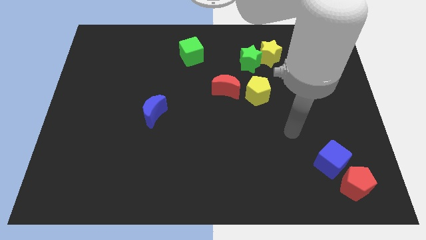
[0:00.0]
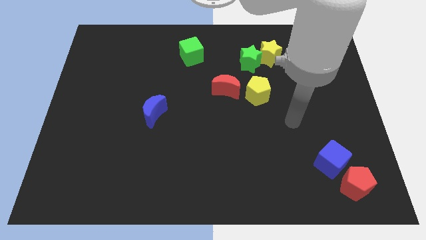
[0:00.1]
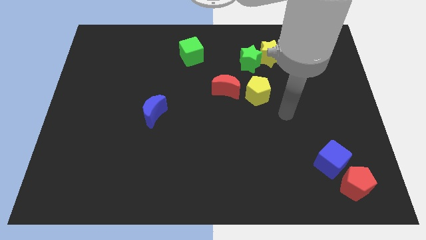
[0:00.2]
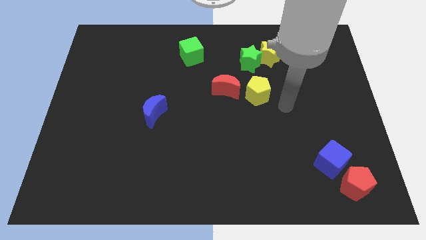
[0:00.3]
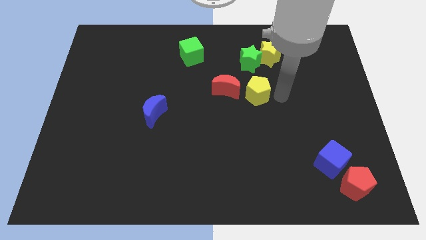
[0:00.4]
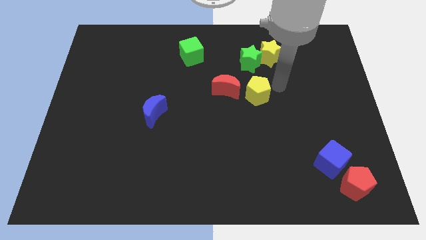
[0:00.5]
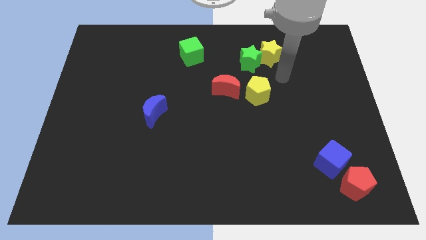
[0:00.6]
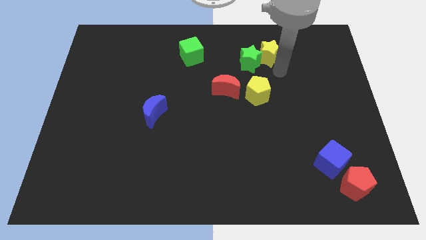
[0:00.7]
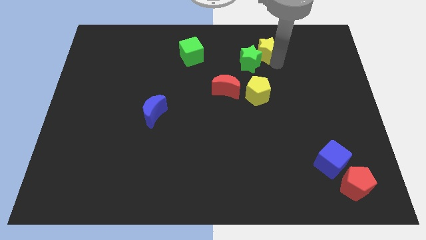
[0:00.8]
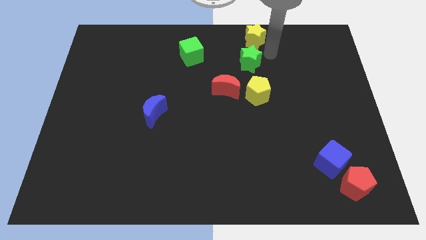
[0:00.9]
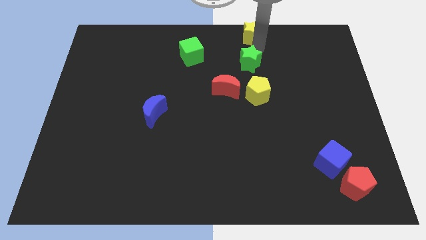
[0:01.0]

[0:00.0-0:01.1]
pull the green star apart from the yellow star

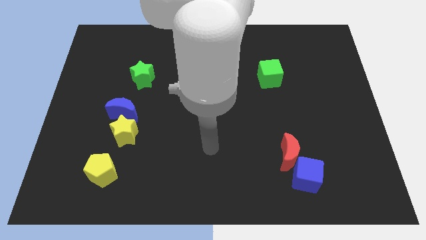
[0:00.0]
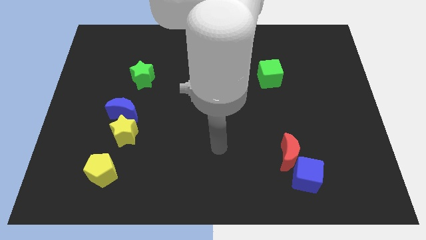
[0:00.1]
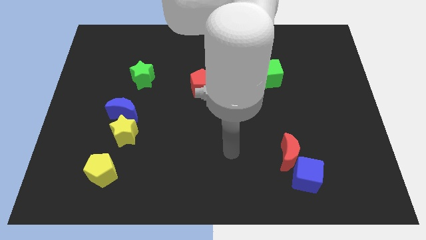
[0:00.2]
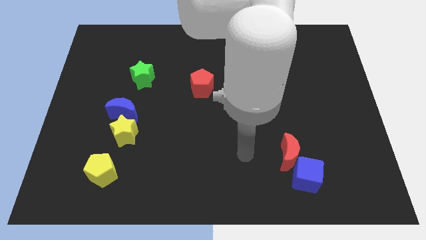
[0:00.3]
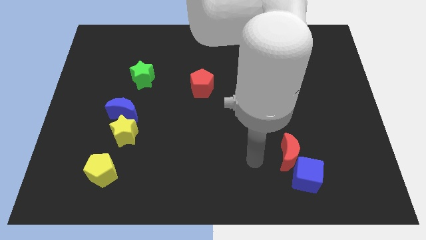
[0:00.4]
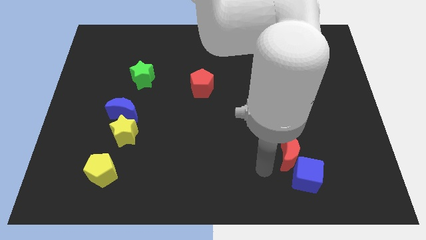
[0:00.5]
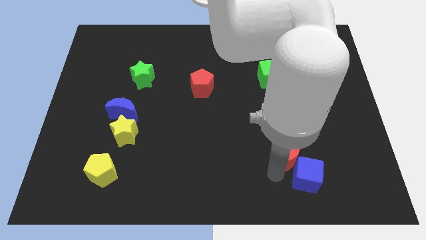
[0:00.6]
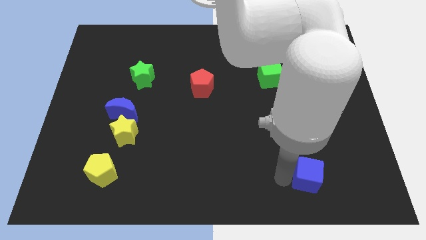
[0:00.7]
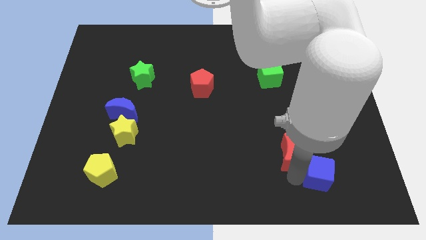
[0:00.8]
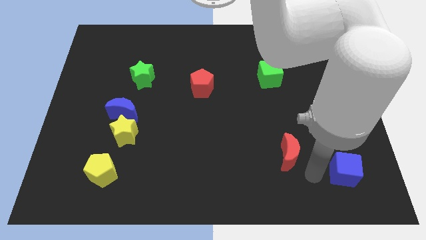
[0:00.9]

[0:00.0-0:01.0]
separate the red moon from the blue cube

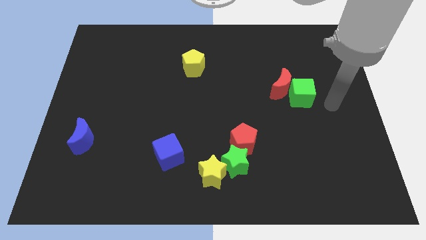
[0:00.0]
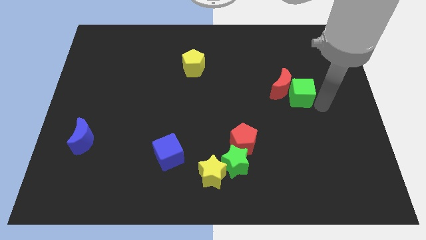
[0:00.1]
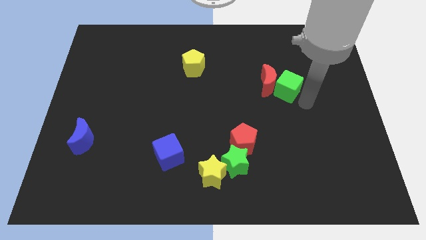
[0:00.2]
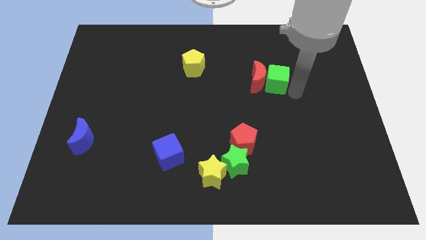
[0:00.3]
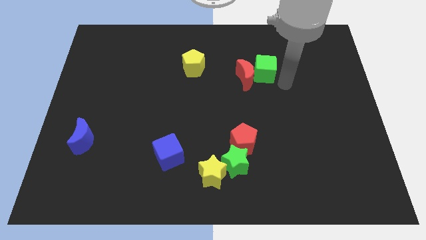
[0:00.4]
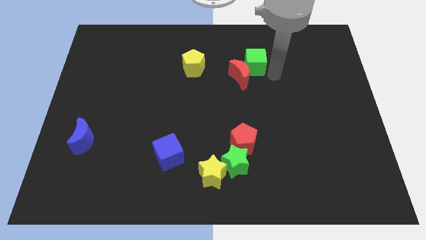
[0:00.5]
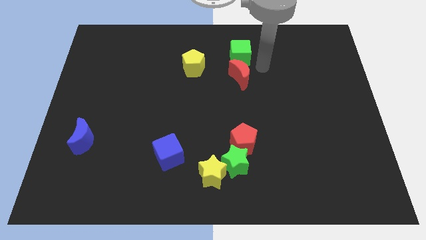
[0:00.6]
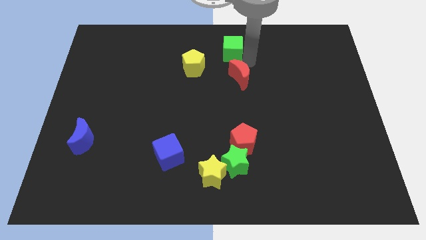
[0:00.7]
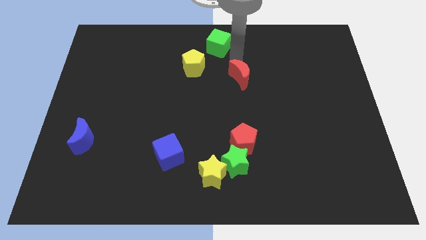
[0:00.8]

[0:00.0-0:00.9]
pull the red moon apart from the green cube

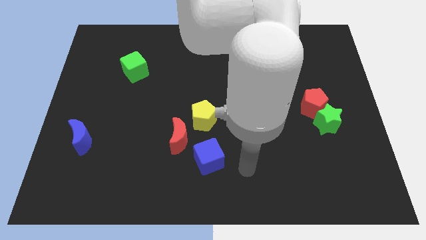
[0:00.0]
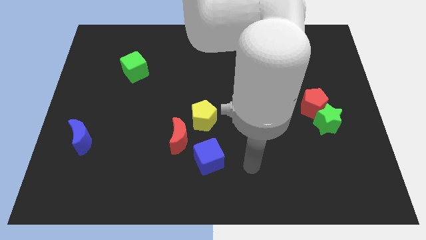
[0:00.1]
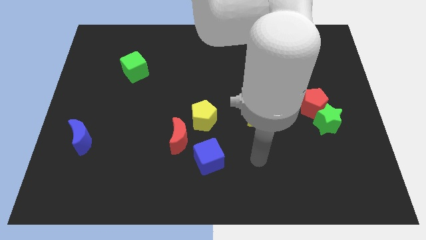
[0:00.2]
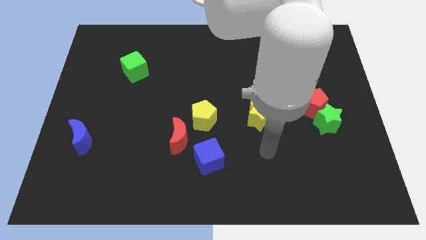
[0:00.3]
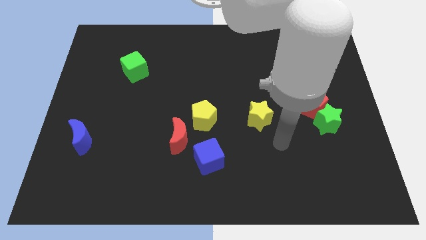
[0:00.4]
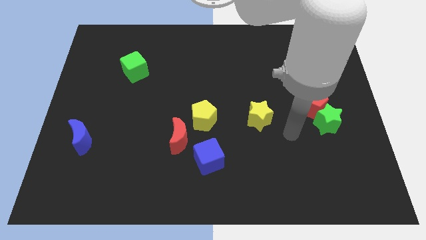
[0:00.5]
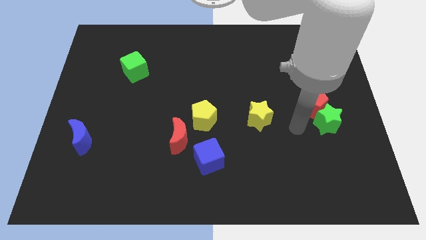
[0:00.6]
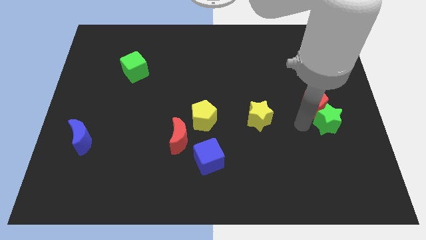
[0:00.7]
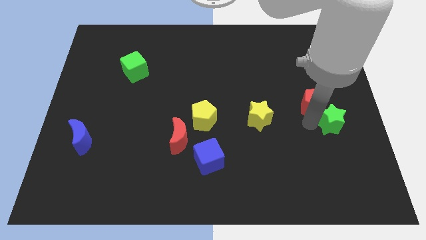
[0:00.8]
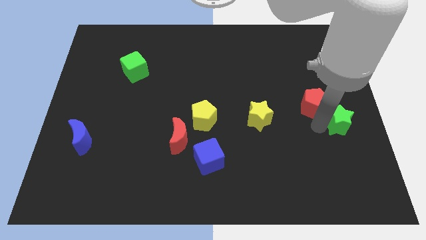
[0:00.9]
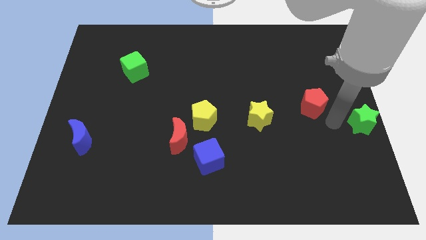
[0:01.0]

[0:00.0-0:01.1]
separate the red pentagon from the green star

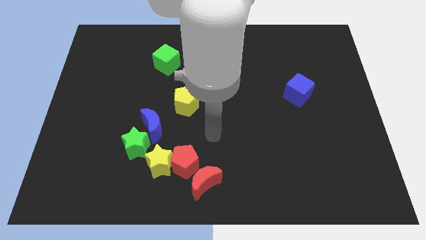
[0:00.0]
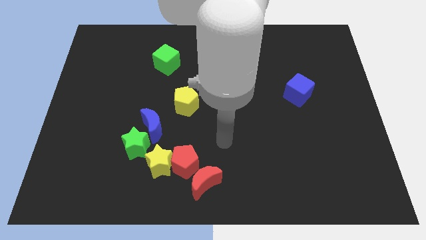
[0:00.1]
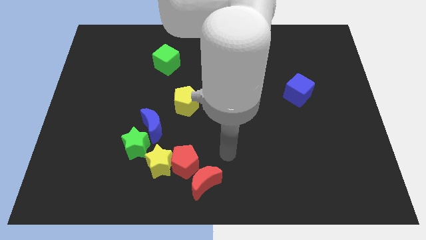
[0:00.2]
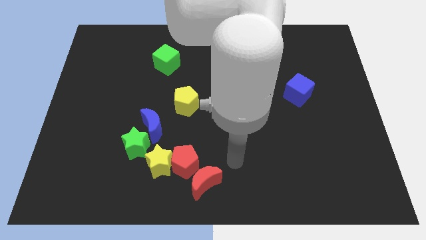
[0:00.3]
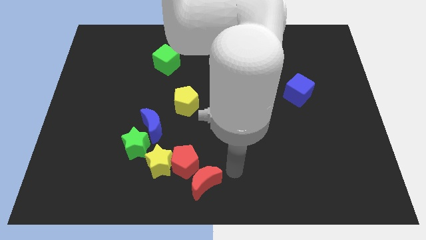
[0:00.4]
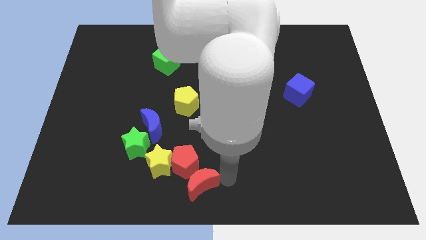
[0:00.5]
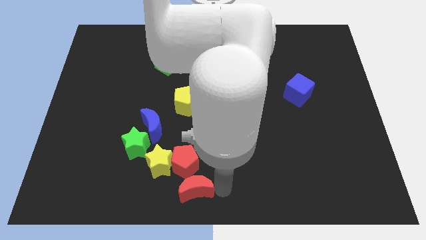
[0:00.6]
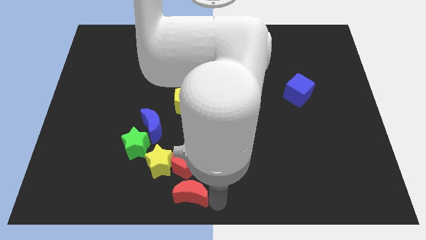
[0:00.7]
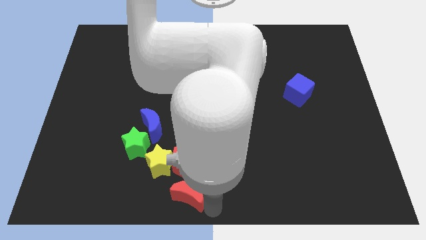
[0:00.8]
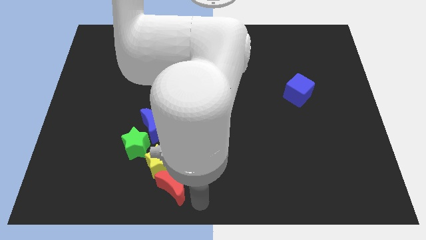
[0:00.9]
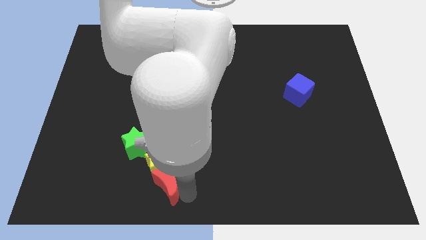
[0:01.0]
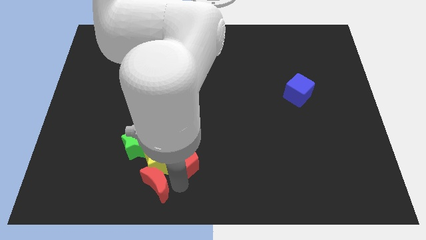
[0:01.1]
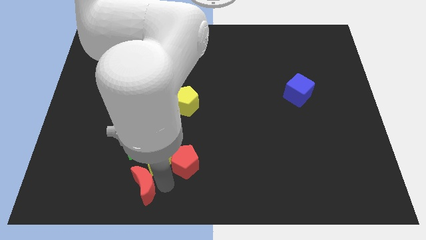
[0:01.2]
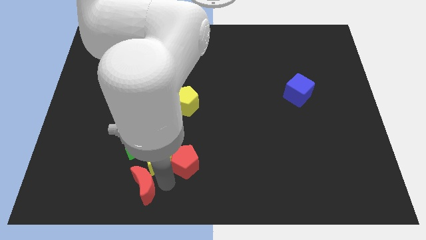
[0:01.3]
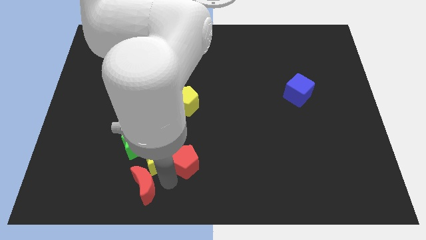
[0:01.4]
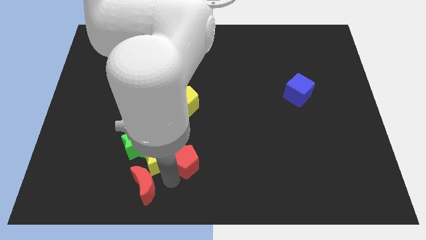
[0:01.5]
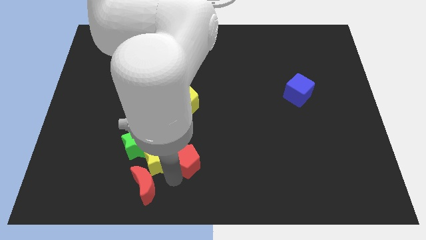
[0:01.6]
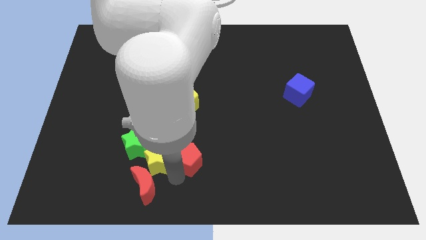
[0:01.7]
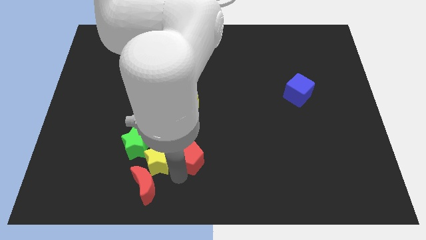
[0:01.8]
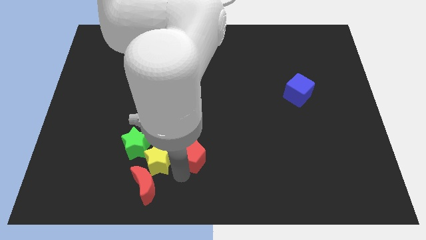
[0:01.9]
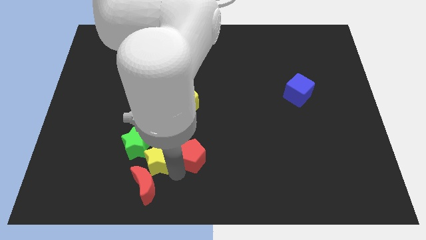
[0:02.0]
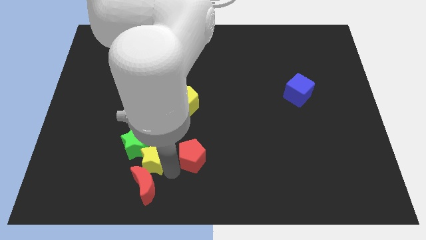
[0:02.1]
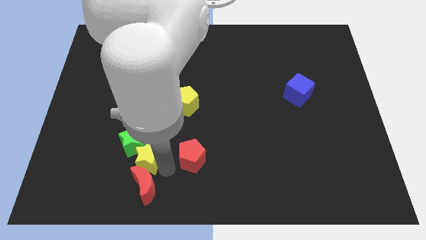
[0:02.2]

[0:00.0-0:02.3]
pull the red pentagon apart from the yellow star and red moon

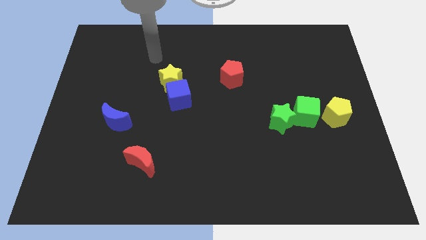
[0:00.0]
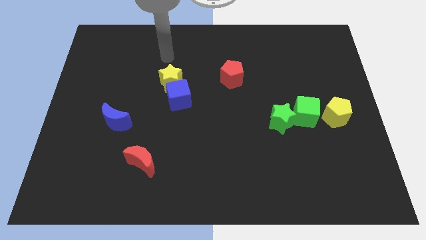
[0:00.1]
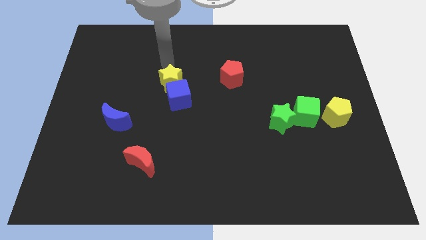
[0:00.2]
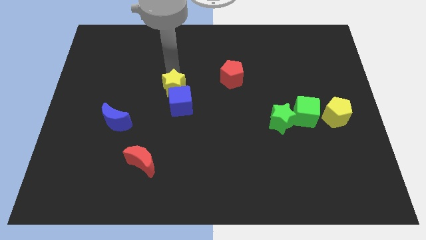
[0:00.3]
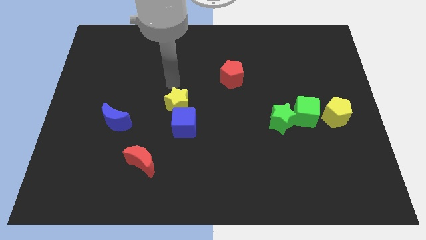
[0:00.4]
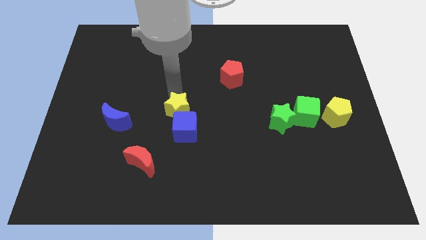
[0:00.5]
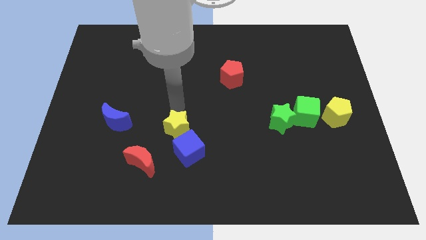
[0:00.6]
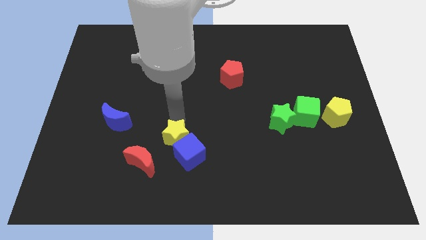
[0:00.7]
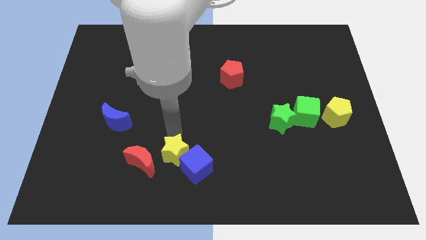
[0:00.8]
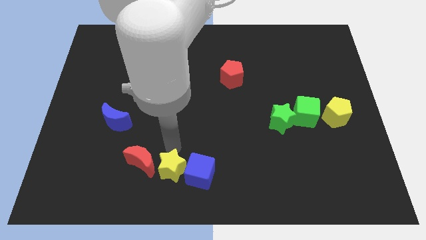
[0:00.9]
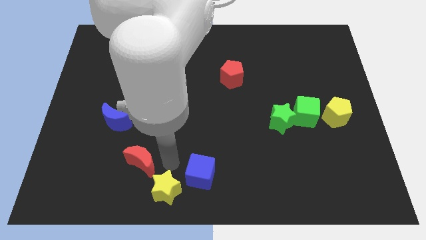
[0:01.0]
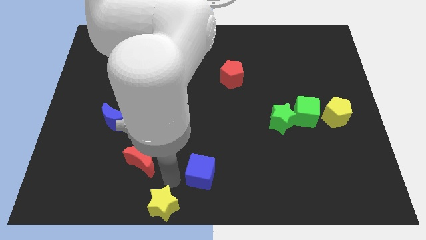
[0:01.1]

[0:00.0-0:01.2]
move the blue cube away from the yellow star

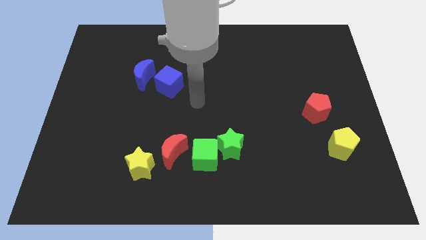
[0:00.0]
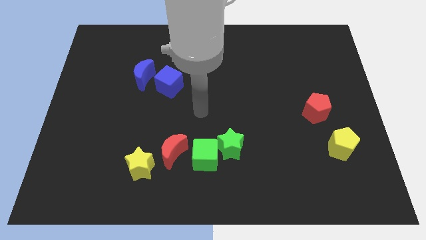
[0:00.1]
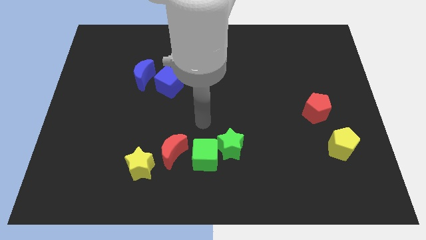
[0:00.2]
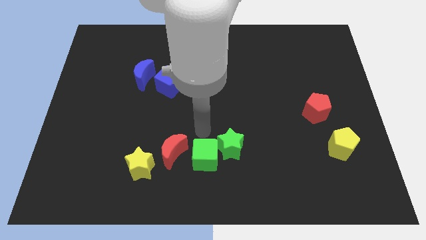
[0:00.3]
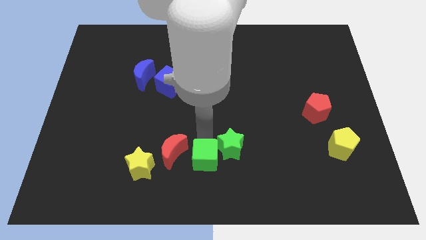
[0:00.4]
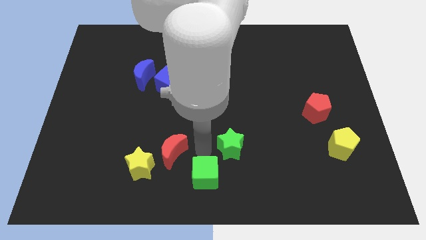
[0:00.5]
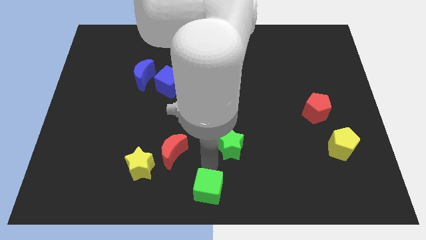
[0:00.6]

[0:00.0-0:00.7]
pull the green star apart from the green cube

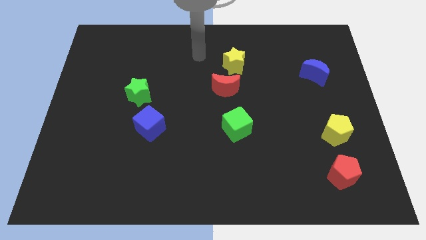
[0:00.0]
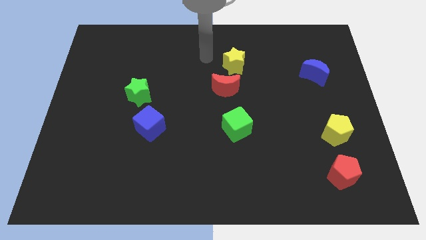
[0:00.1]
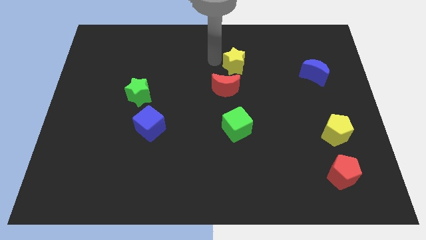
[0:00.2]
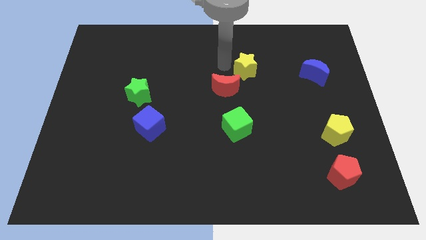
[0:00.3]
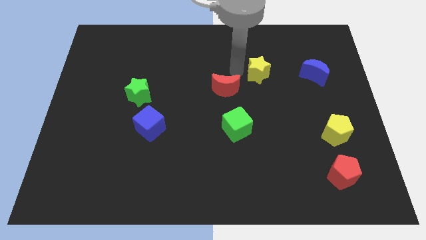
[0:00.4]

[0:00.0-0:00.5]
pull the red moon apart from the yellow star

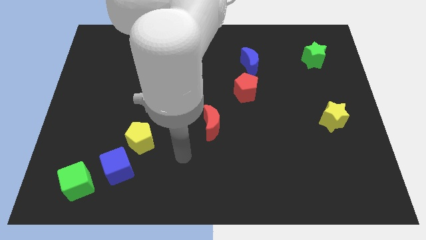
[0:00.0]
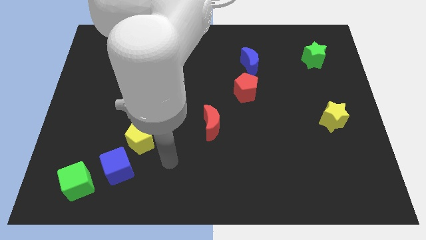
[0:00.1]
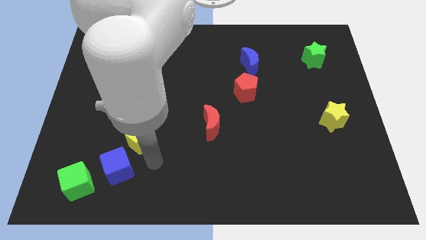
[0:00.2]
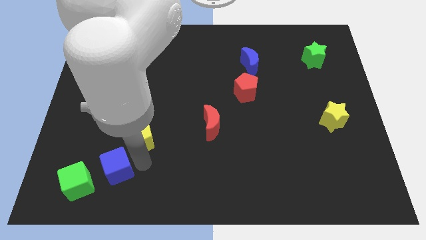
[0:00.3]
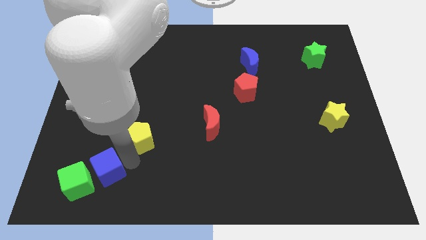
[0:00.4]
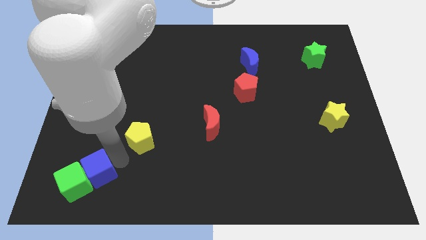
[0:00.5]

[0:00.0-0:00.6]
pull the yellow pentagon apart from the blue cube
